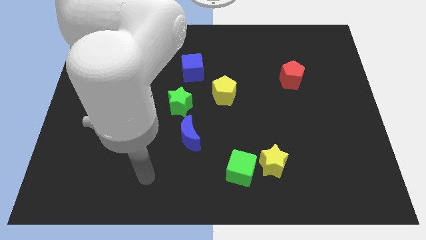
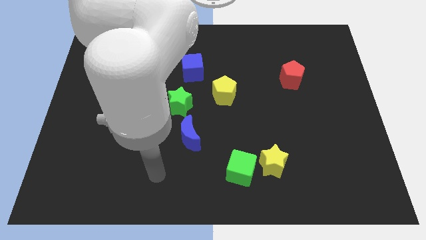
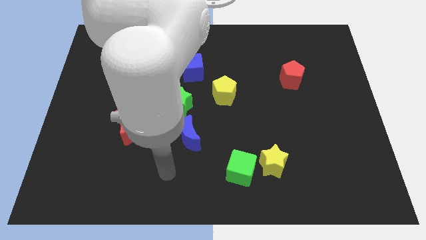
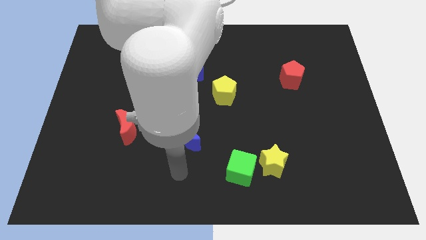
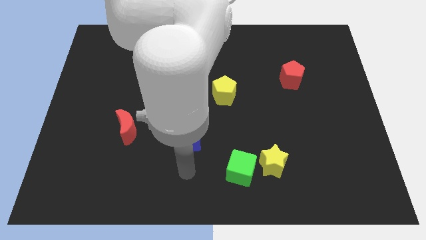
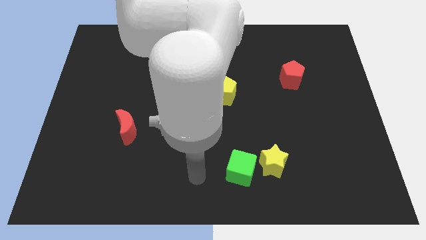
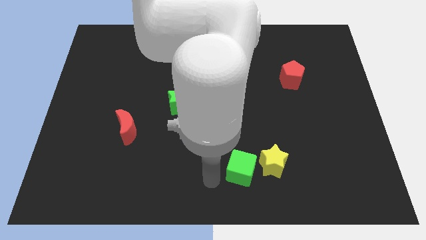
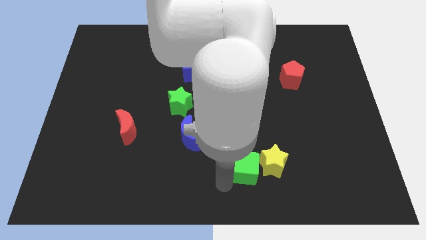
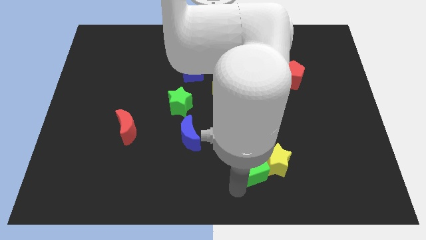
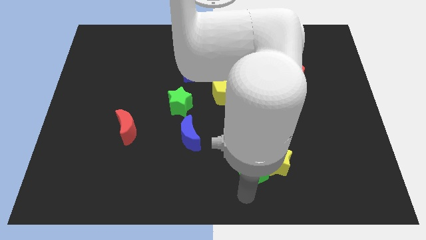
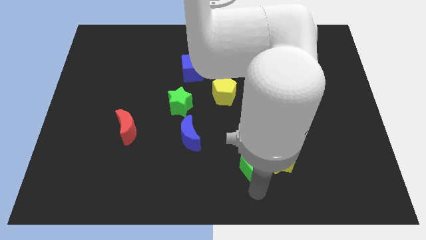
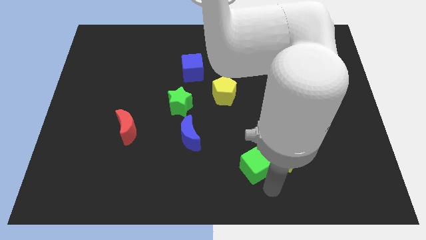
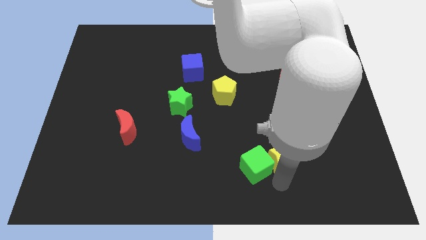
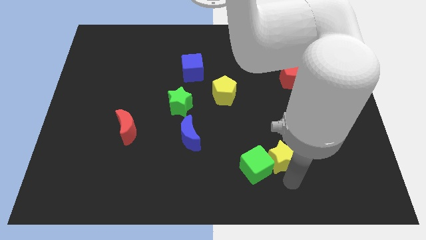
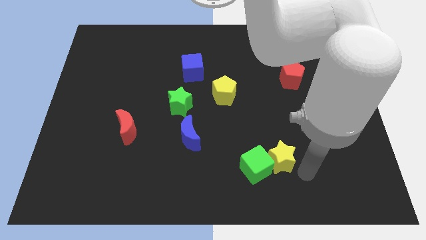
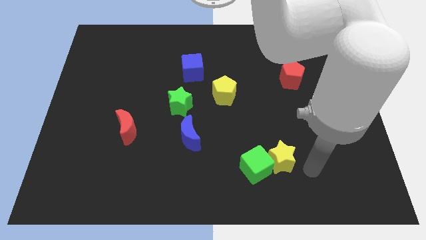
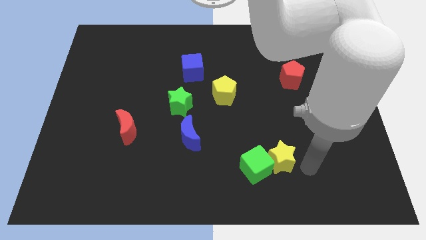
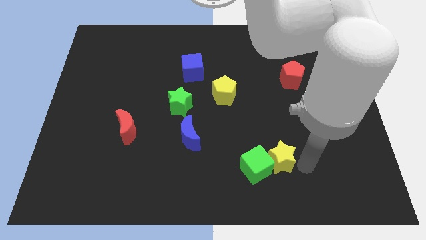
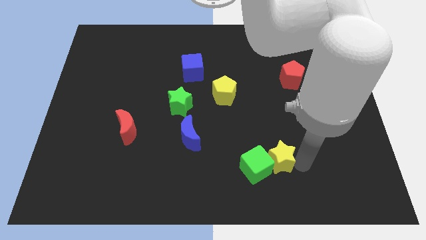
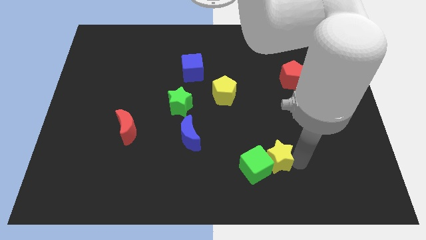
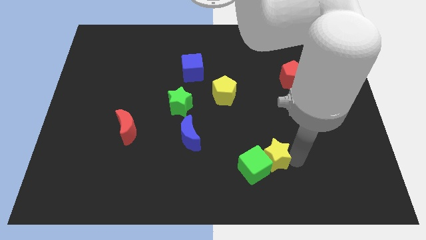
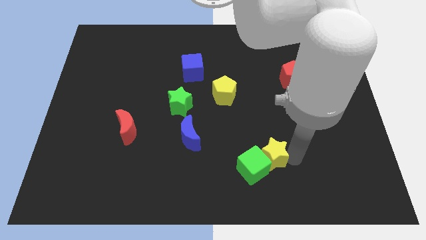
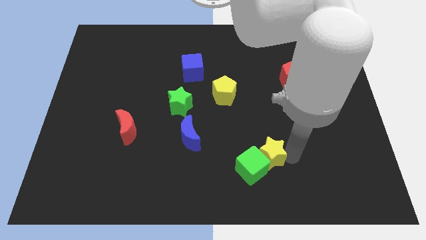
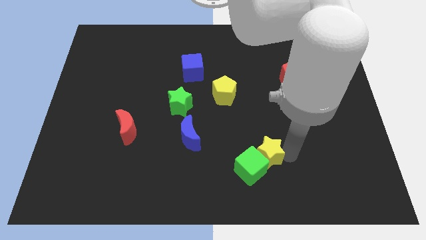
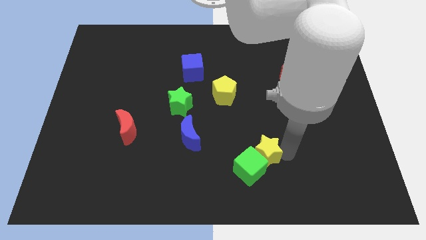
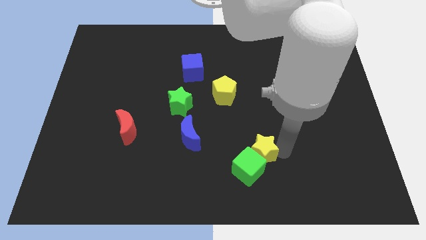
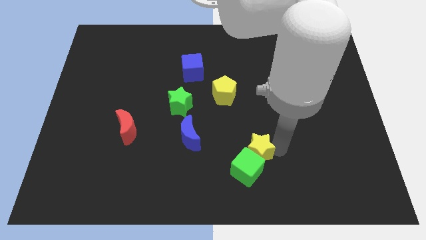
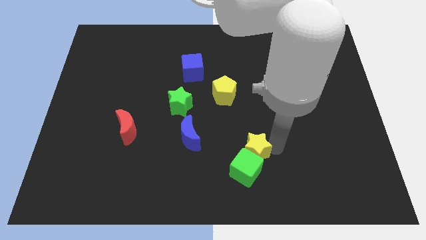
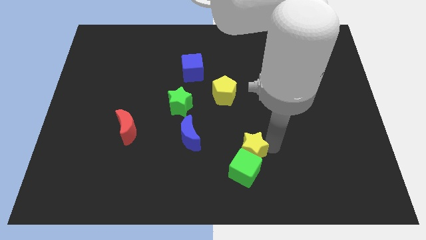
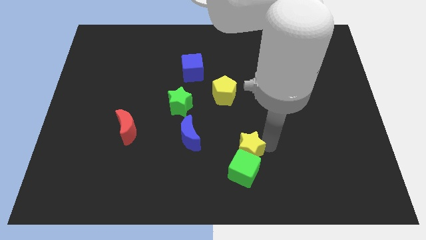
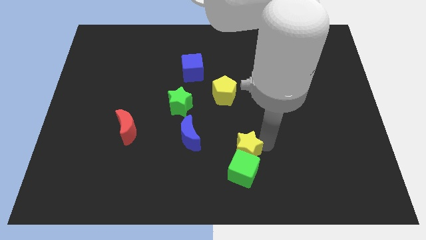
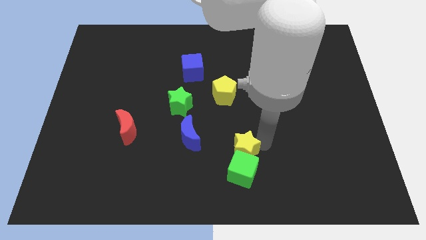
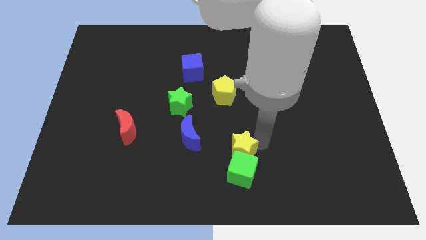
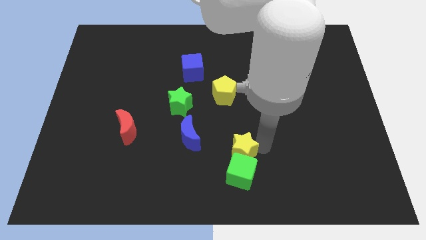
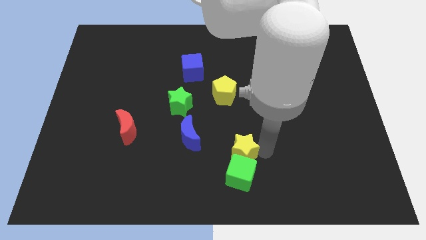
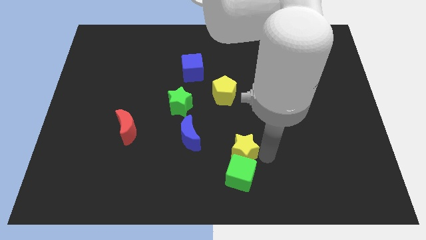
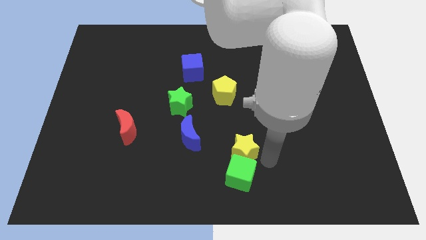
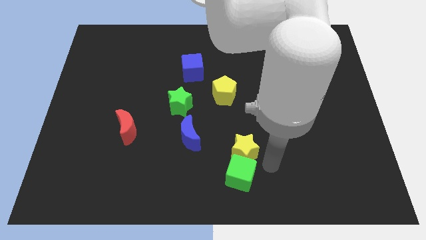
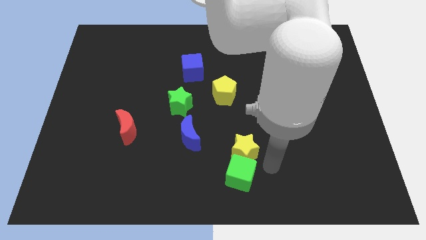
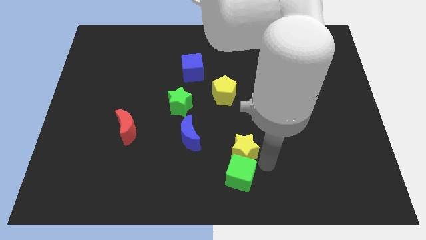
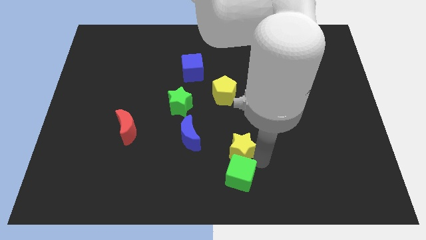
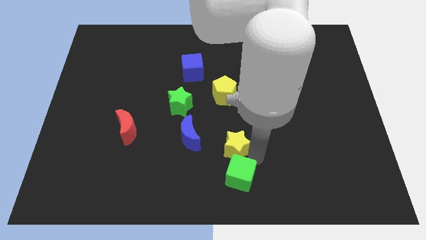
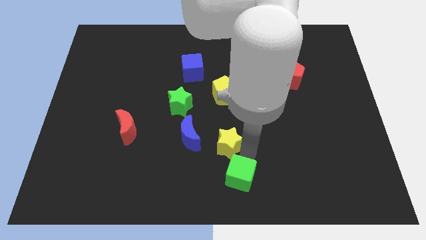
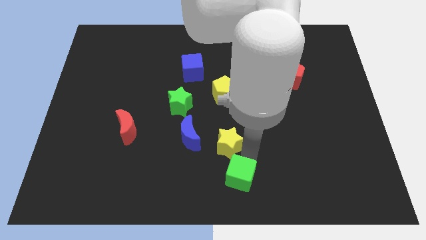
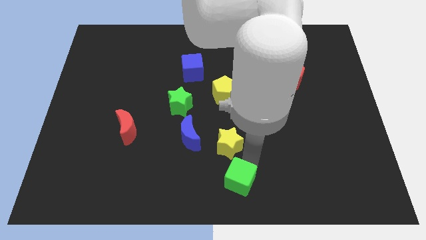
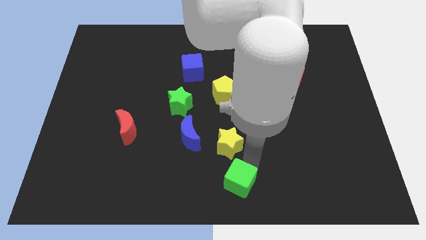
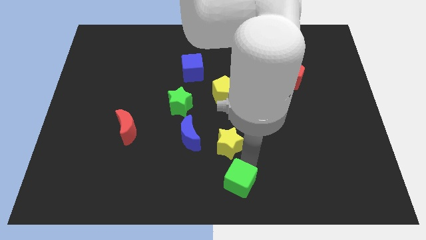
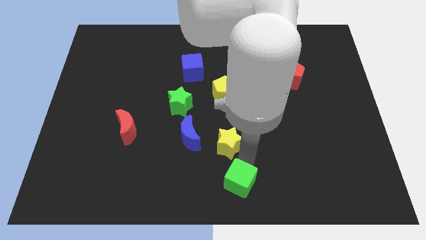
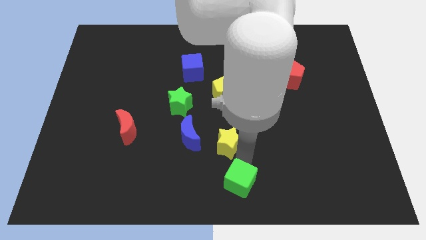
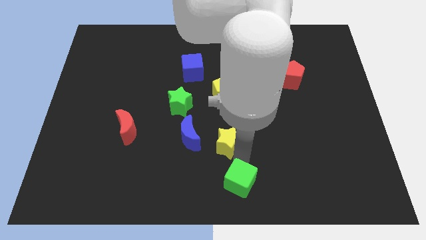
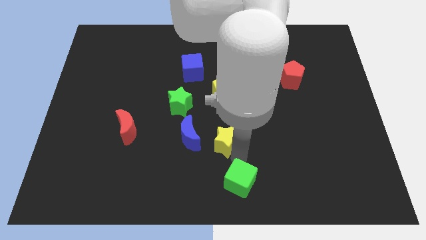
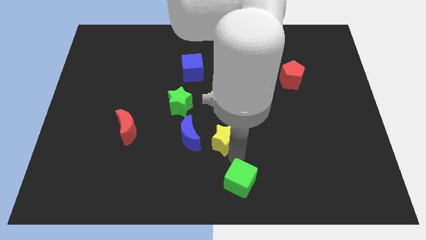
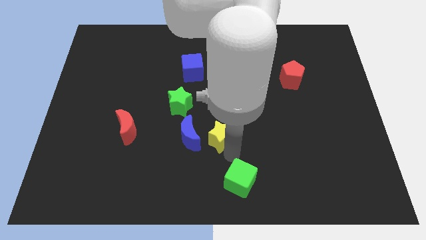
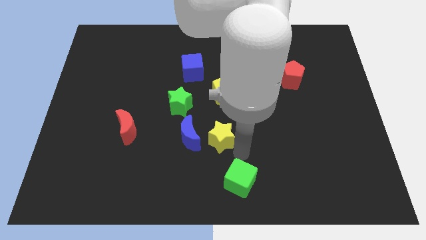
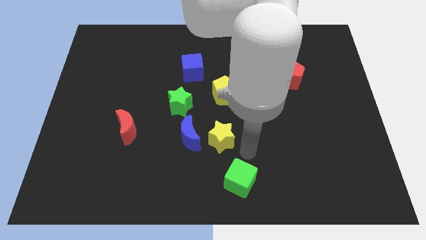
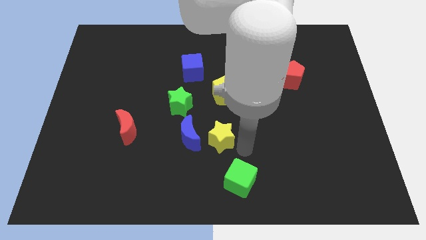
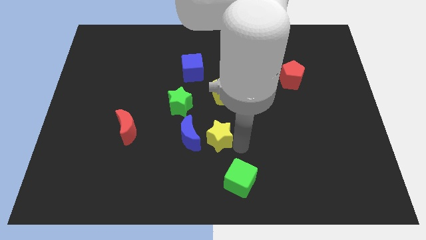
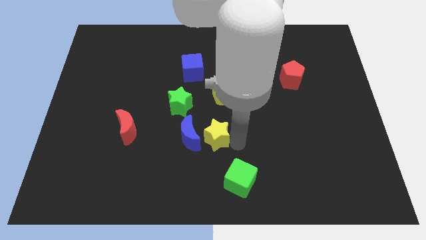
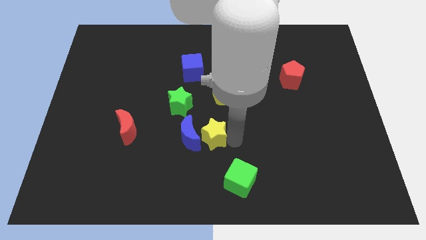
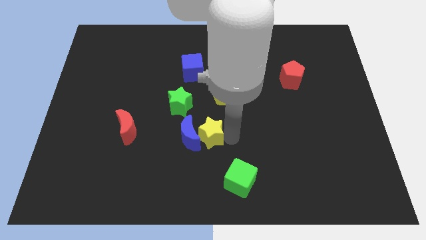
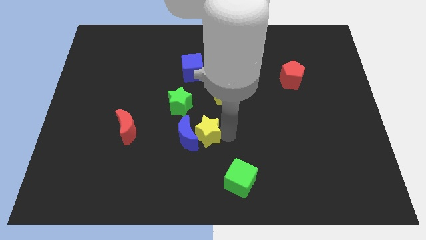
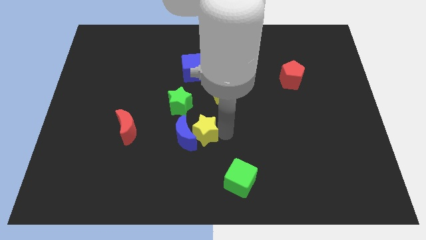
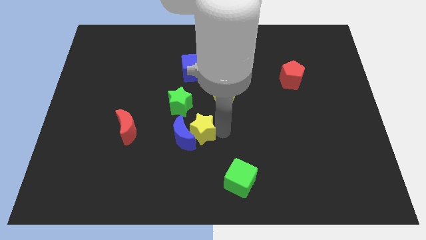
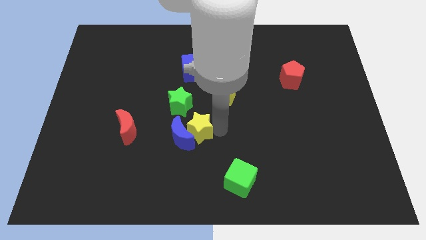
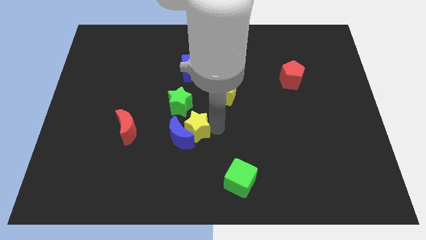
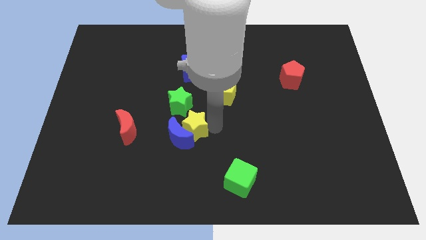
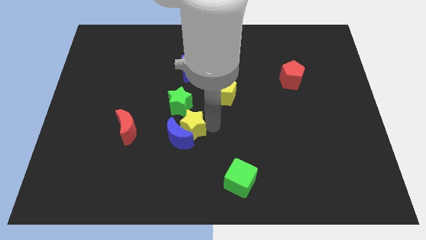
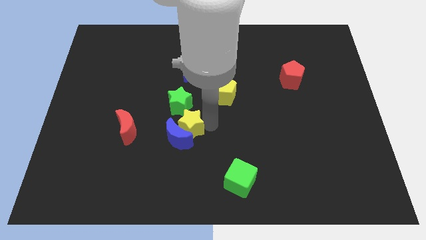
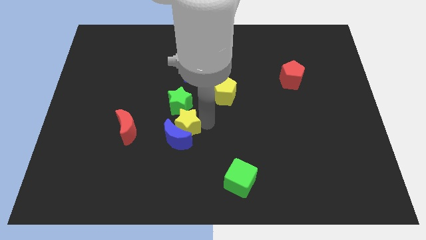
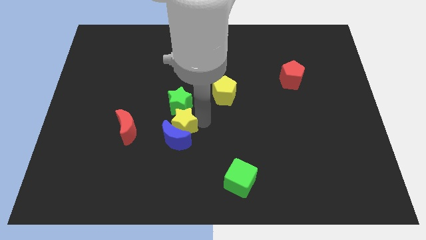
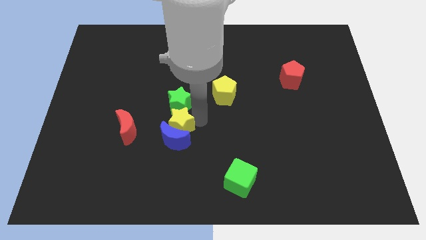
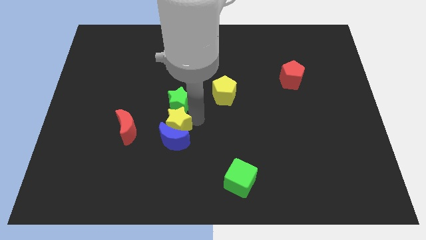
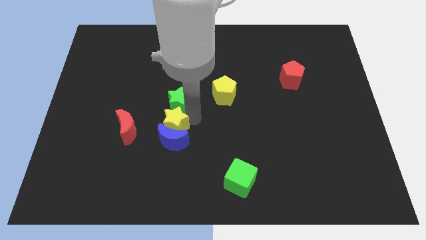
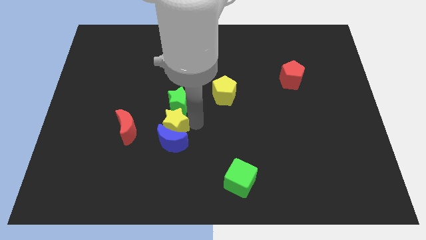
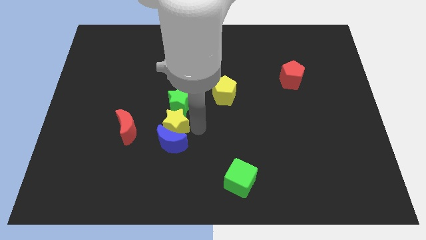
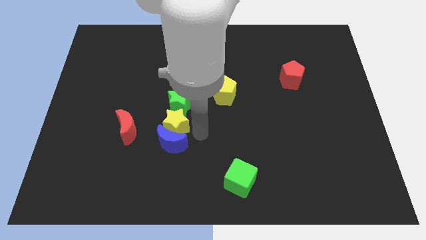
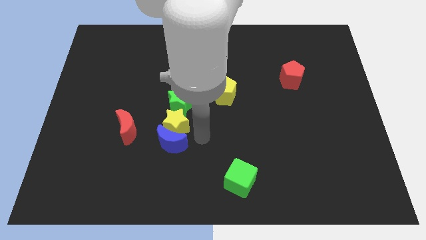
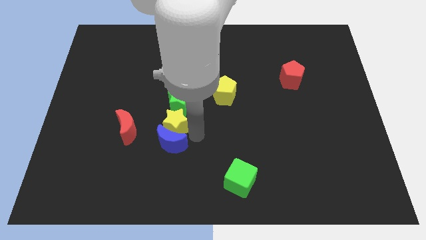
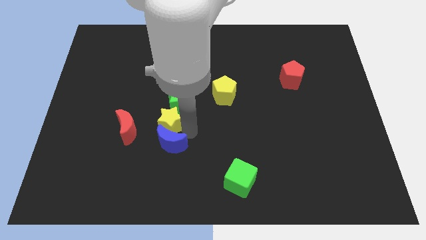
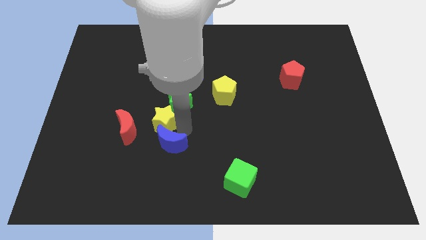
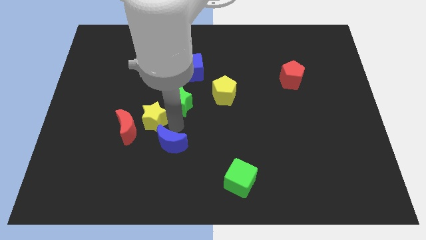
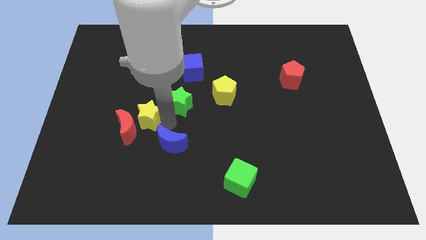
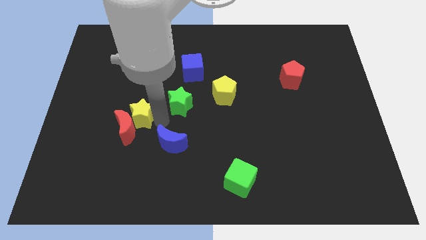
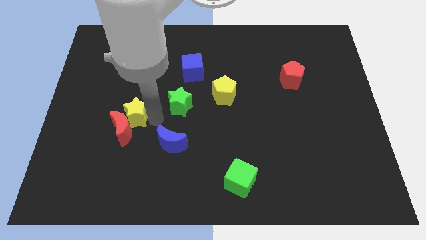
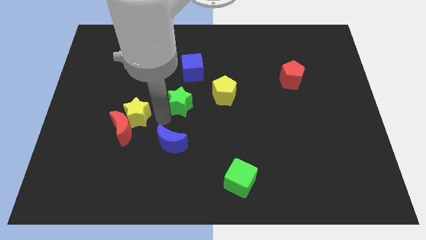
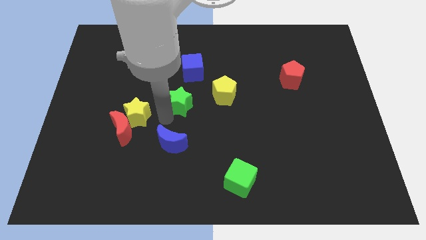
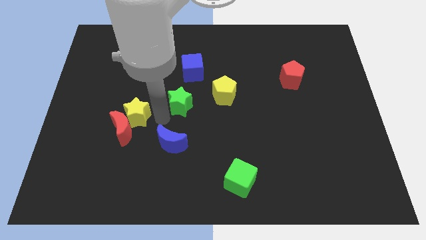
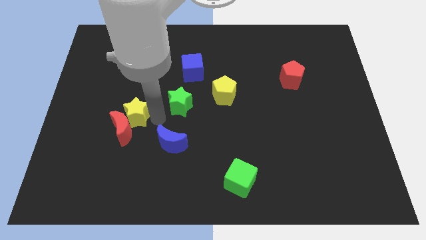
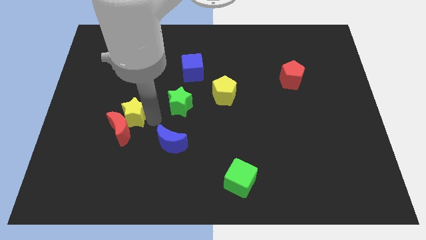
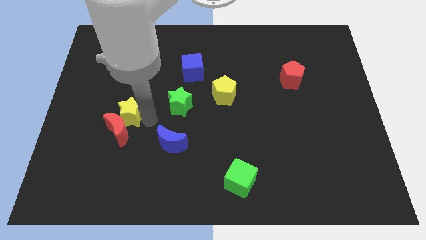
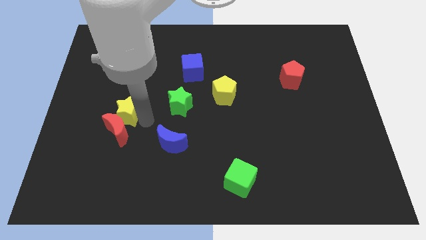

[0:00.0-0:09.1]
move the yellow star to the top left side of the red moon
